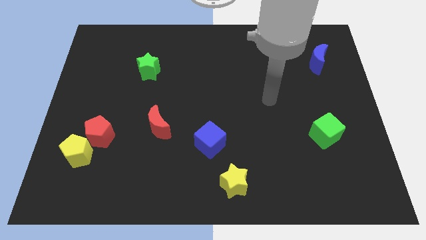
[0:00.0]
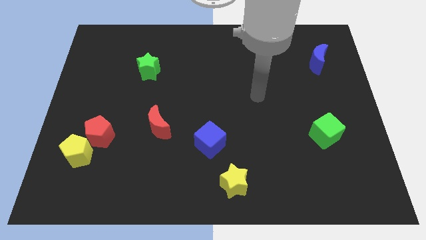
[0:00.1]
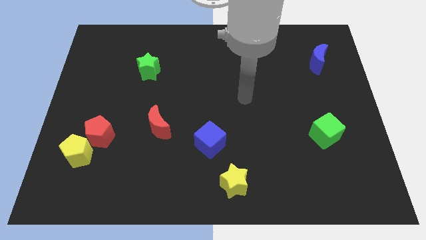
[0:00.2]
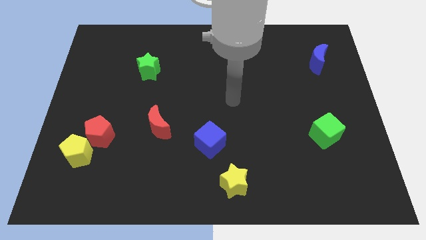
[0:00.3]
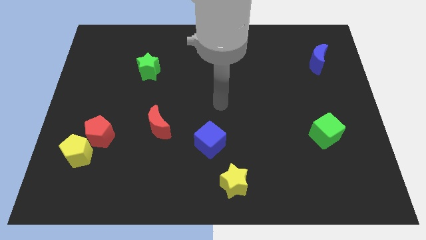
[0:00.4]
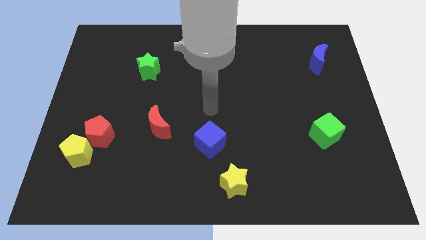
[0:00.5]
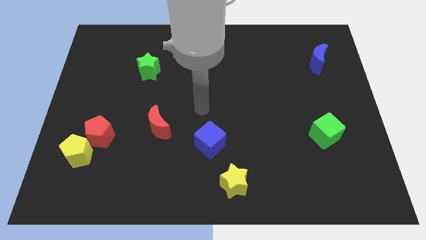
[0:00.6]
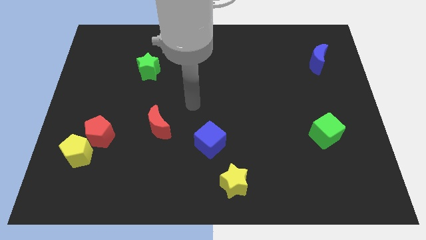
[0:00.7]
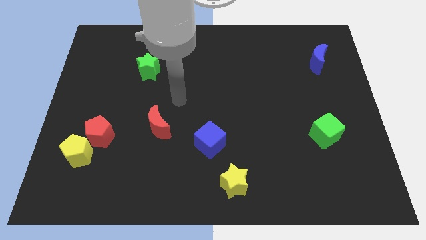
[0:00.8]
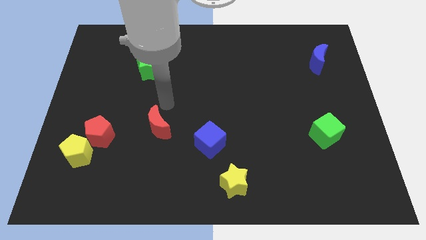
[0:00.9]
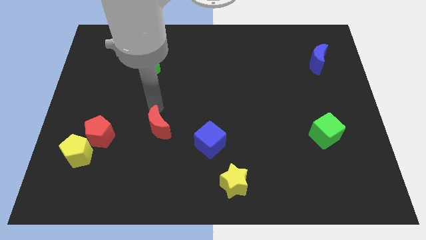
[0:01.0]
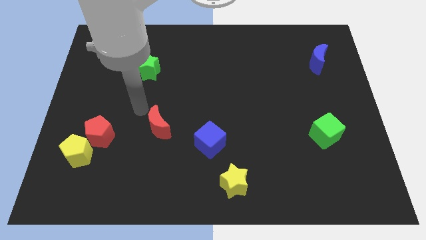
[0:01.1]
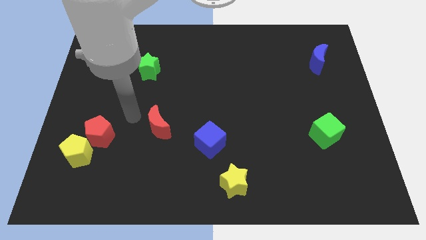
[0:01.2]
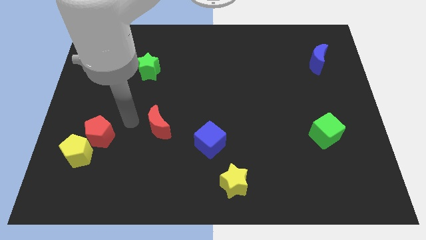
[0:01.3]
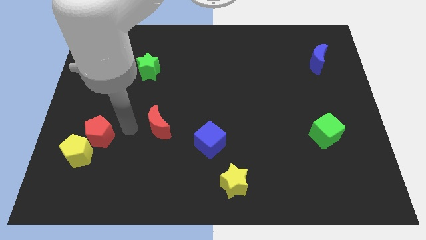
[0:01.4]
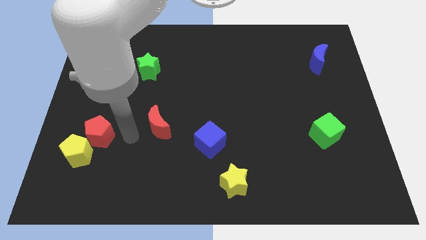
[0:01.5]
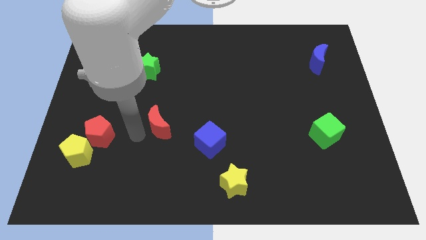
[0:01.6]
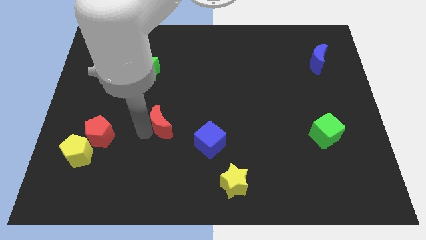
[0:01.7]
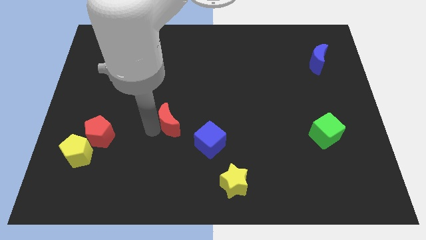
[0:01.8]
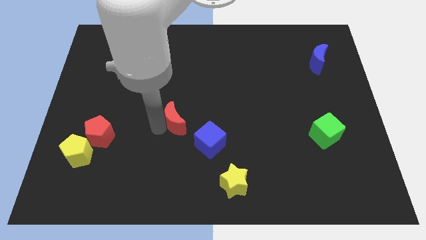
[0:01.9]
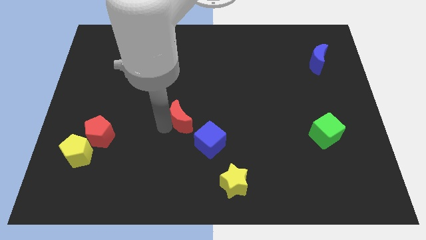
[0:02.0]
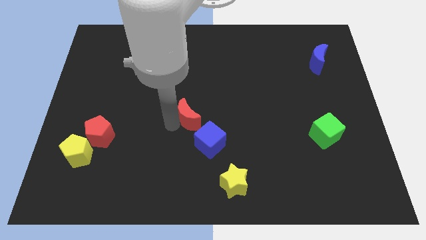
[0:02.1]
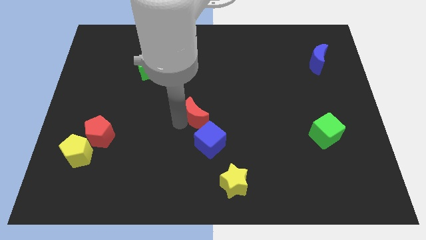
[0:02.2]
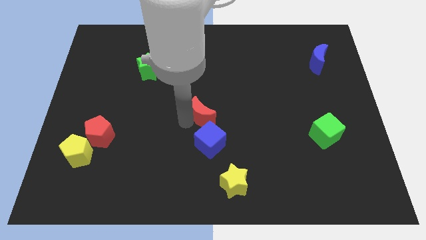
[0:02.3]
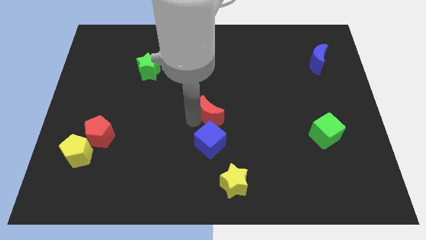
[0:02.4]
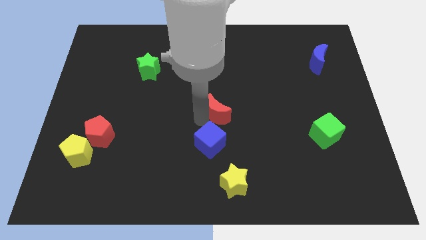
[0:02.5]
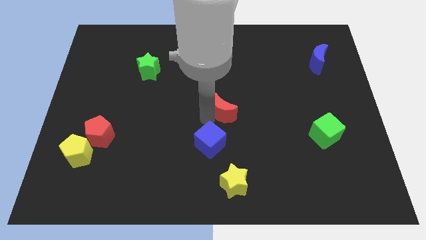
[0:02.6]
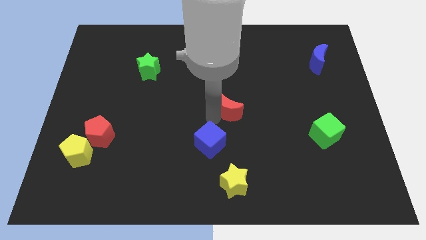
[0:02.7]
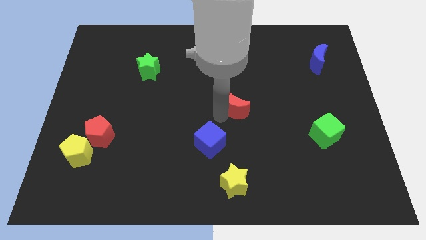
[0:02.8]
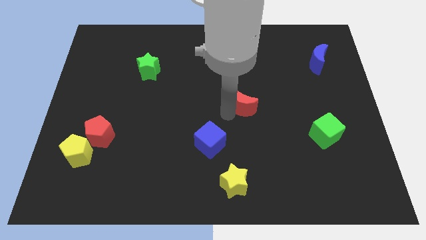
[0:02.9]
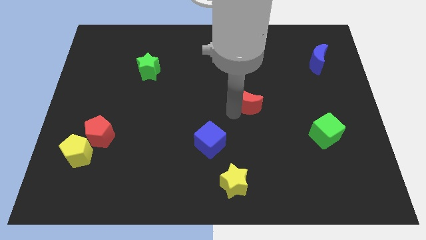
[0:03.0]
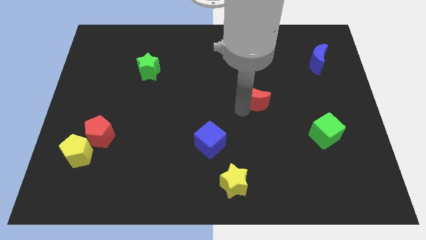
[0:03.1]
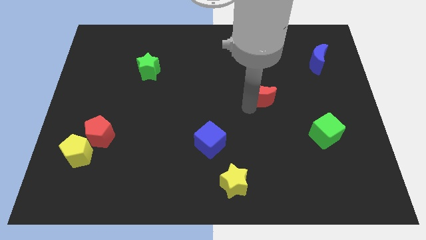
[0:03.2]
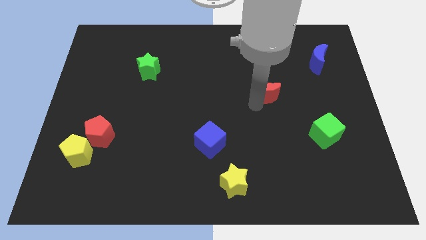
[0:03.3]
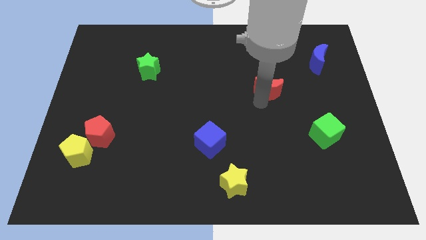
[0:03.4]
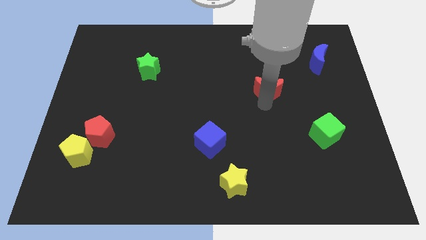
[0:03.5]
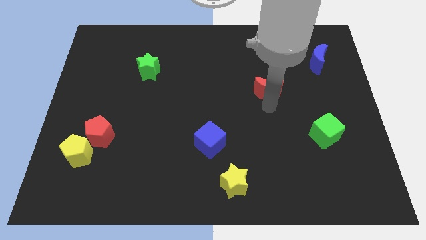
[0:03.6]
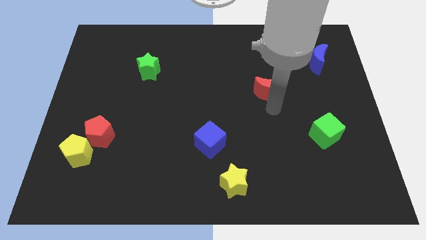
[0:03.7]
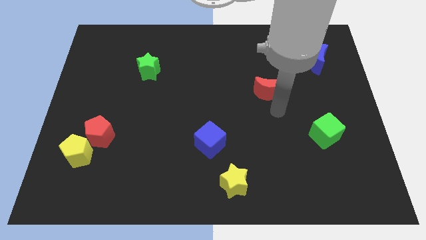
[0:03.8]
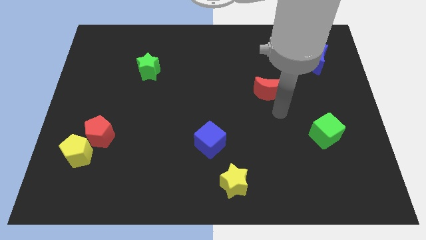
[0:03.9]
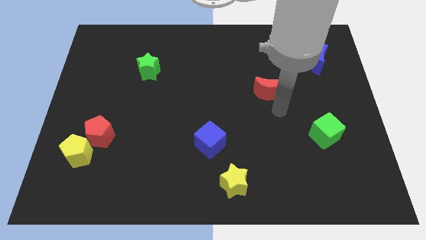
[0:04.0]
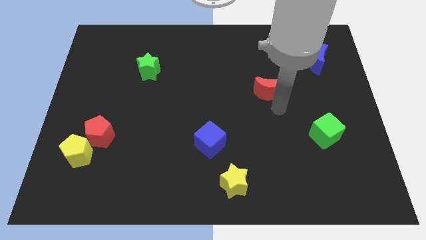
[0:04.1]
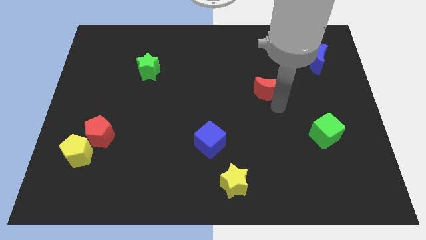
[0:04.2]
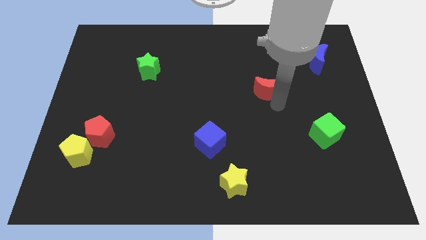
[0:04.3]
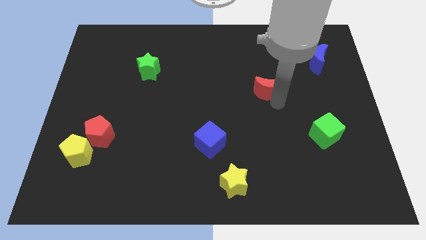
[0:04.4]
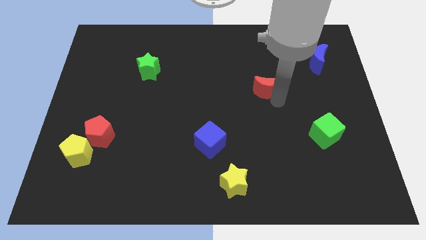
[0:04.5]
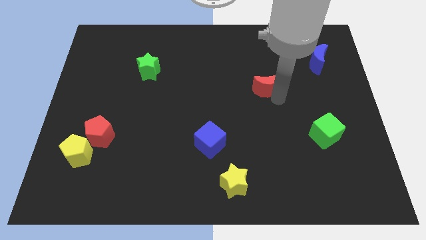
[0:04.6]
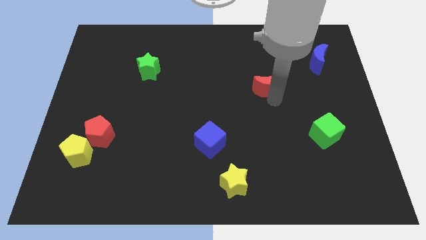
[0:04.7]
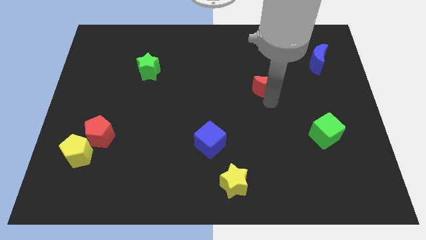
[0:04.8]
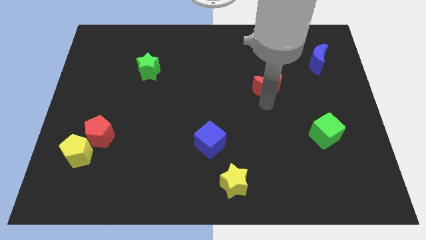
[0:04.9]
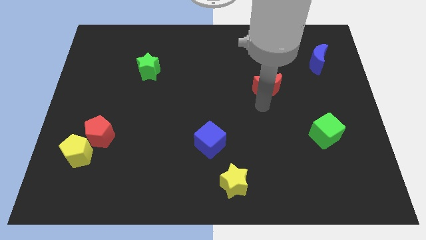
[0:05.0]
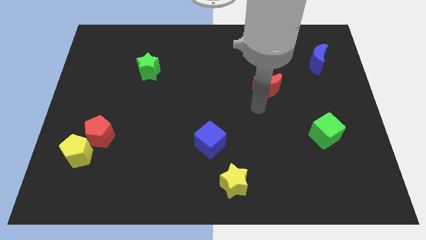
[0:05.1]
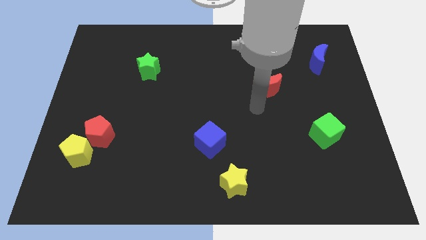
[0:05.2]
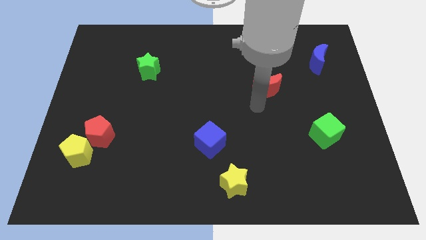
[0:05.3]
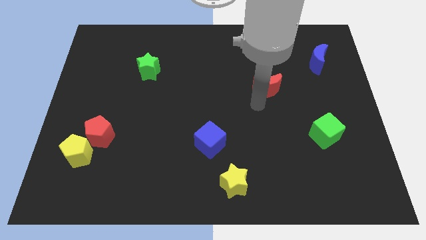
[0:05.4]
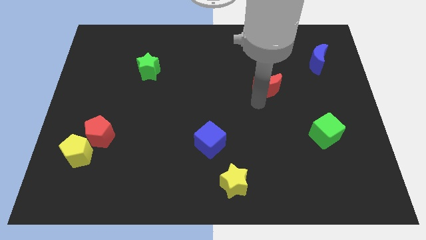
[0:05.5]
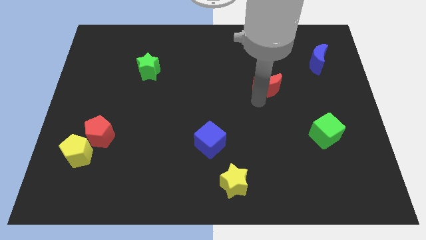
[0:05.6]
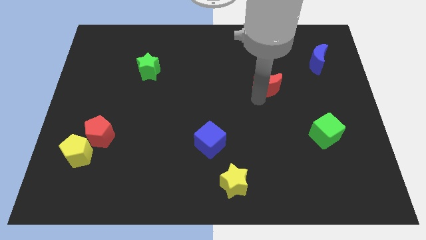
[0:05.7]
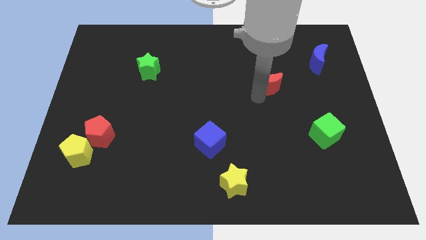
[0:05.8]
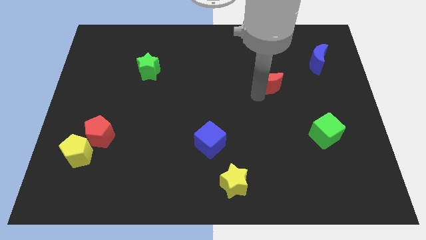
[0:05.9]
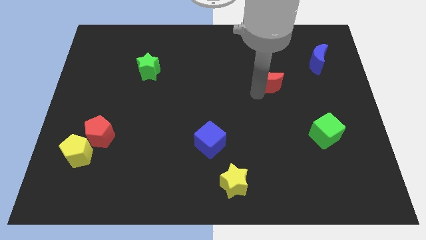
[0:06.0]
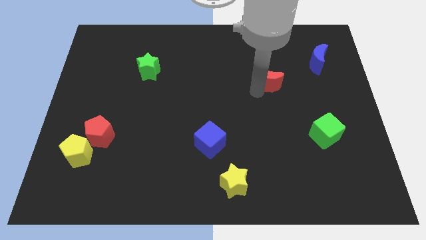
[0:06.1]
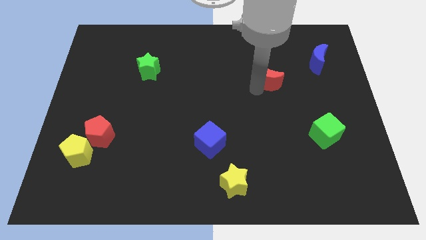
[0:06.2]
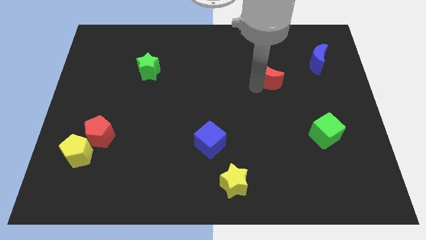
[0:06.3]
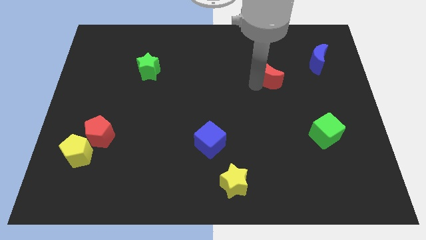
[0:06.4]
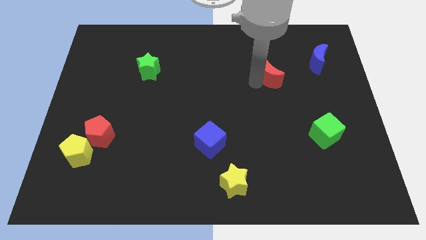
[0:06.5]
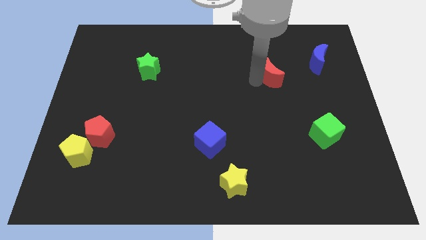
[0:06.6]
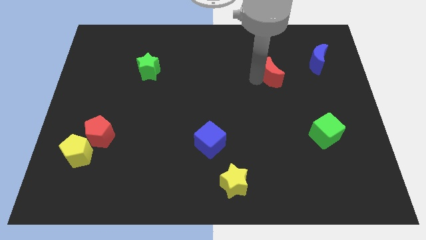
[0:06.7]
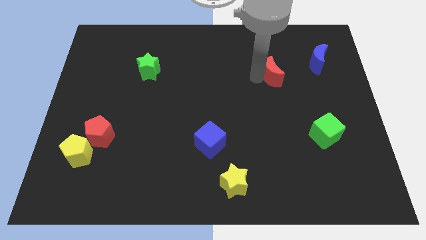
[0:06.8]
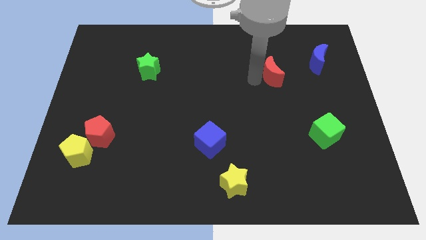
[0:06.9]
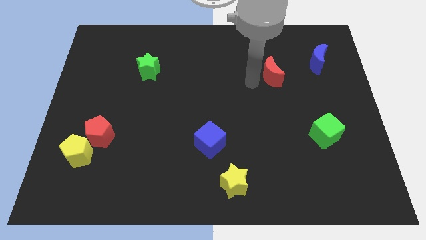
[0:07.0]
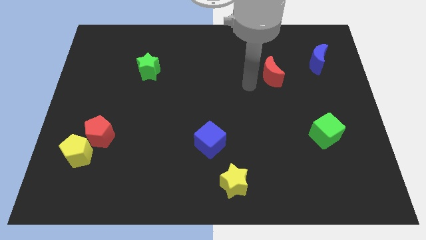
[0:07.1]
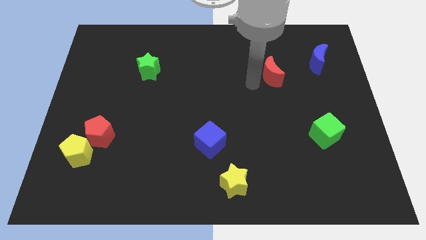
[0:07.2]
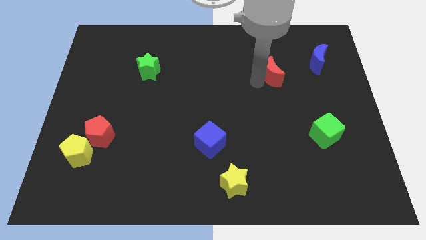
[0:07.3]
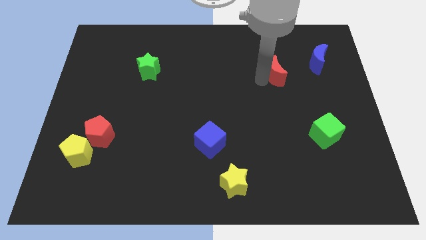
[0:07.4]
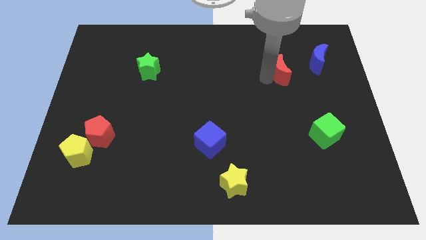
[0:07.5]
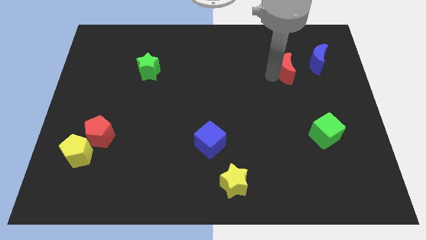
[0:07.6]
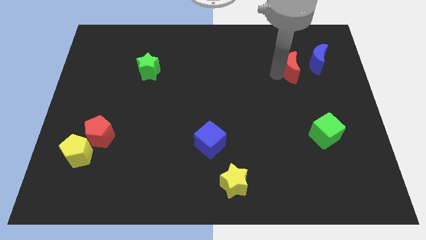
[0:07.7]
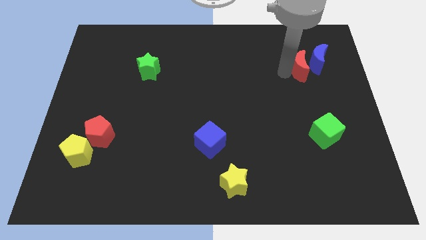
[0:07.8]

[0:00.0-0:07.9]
slide the red moon towards the blue moon

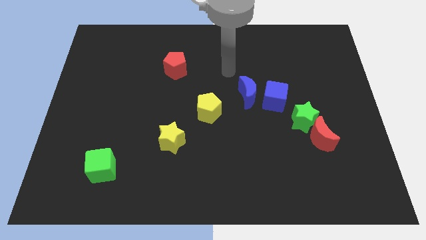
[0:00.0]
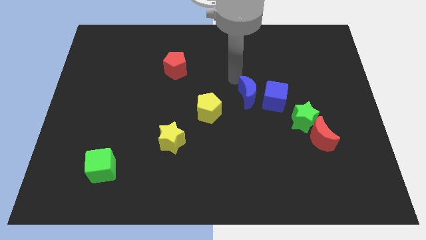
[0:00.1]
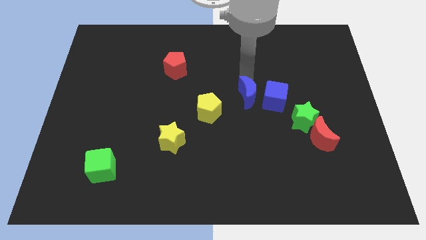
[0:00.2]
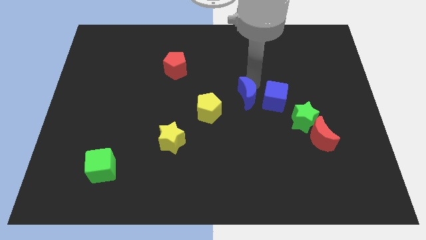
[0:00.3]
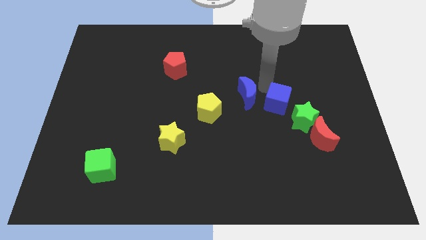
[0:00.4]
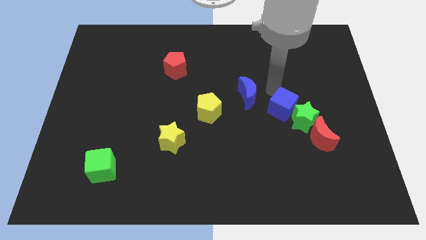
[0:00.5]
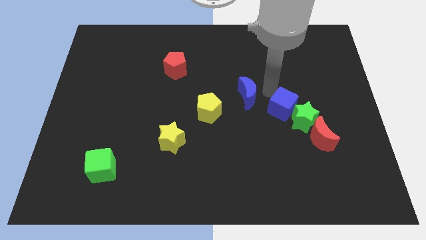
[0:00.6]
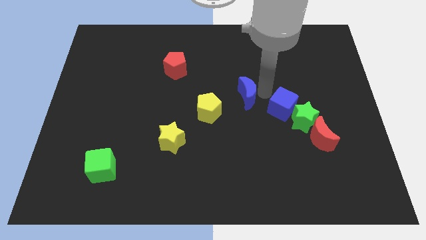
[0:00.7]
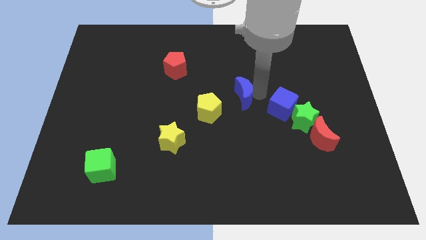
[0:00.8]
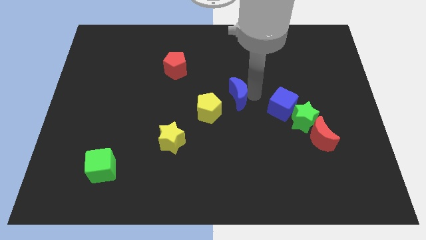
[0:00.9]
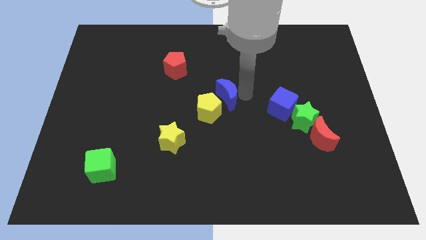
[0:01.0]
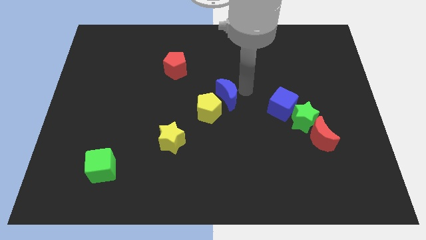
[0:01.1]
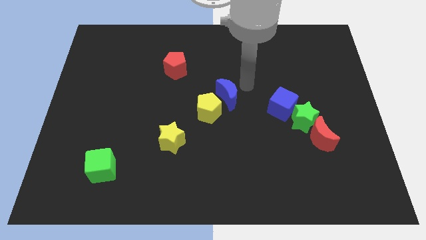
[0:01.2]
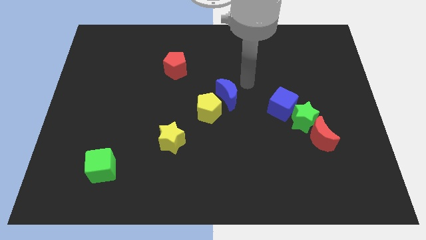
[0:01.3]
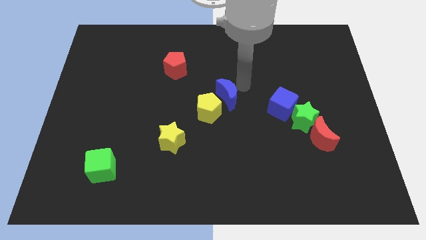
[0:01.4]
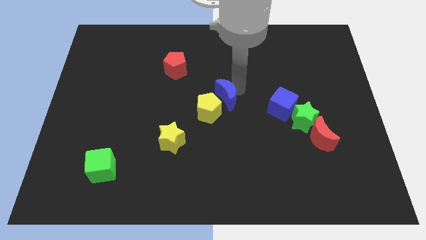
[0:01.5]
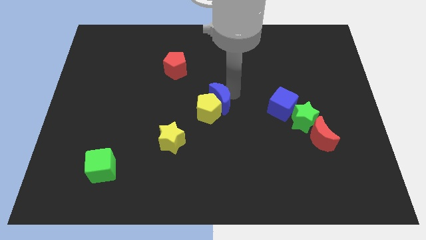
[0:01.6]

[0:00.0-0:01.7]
put the blue moon next to the yellow pentagon
